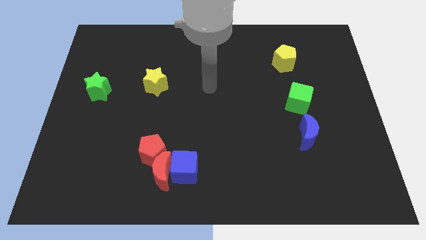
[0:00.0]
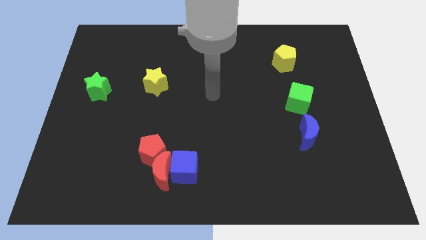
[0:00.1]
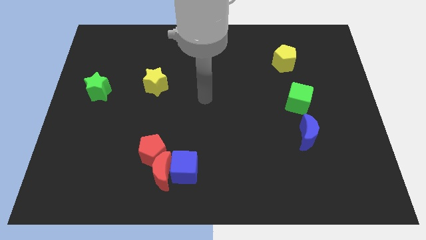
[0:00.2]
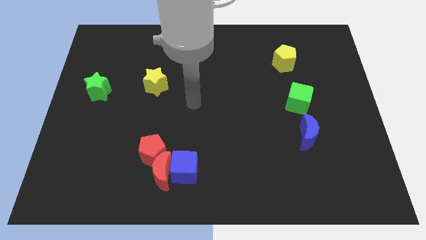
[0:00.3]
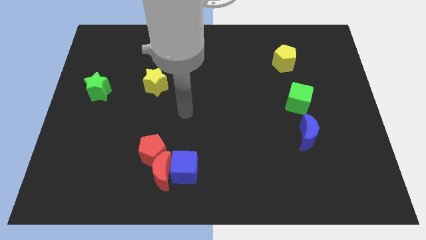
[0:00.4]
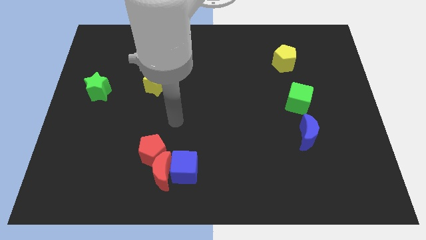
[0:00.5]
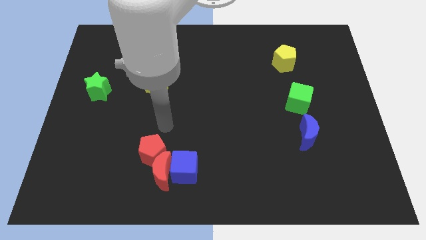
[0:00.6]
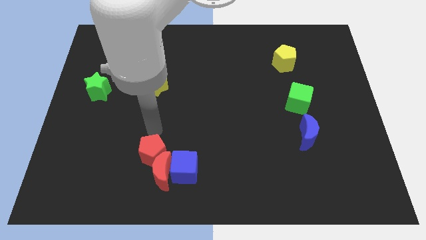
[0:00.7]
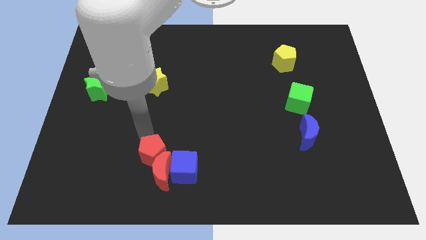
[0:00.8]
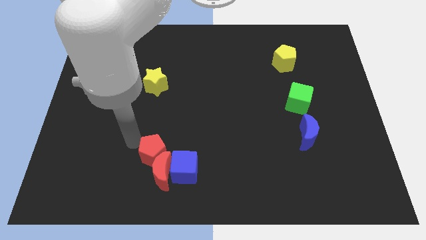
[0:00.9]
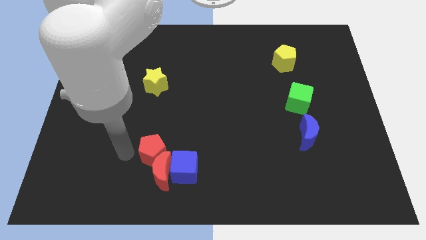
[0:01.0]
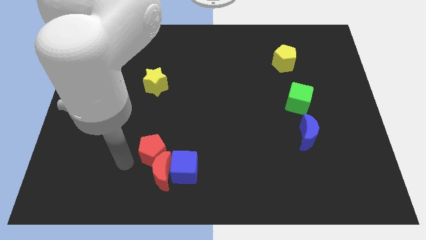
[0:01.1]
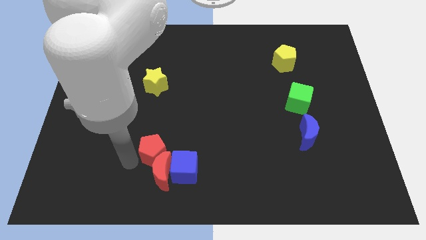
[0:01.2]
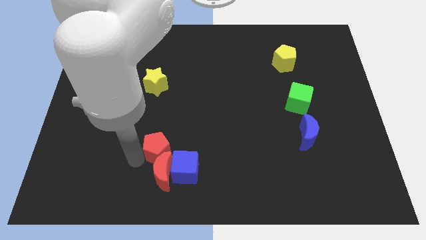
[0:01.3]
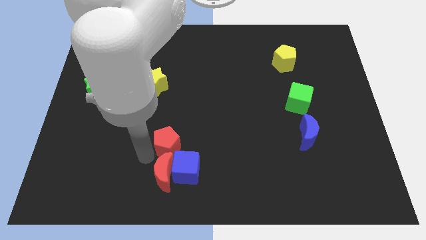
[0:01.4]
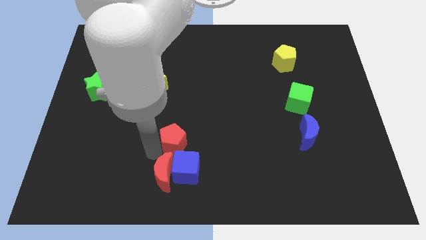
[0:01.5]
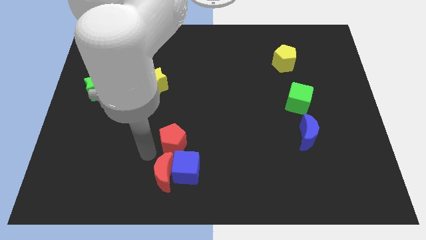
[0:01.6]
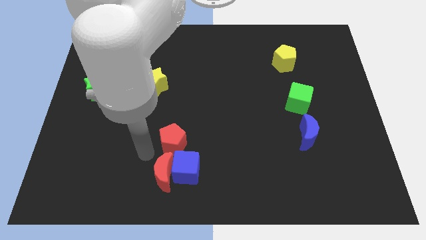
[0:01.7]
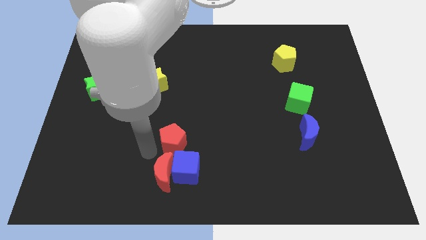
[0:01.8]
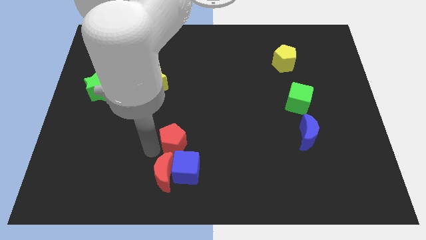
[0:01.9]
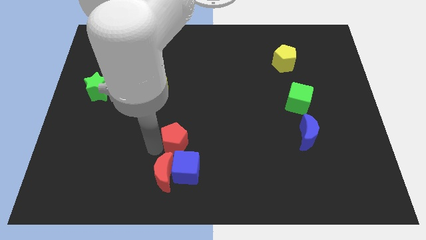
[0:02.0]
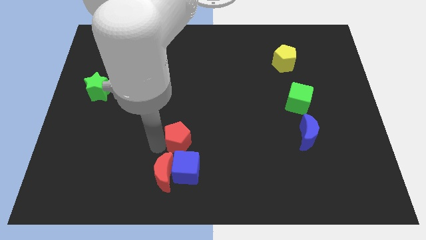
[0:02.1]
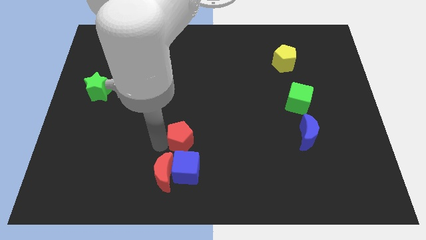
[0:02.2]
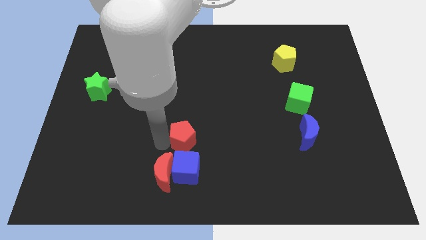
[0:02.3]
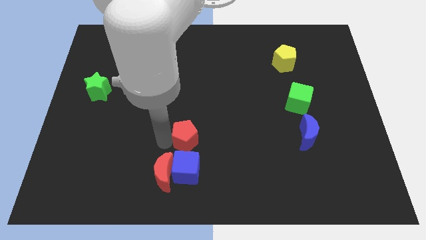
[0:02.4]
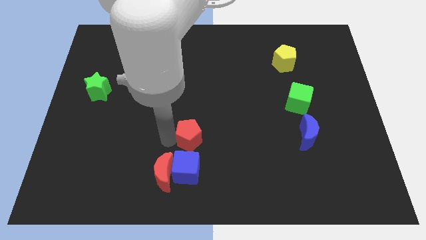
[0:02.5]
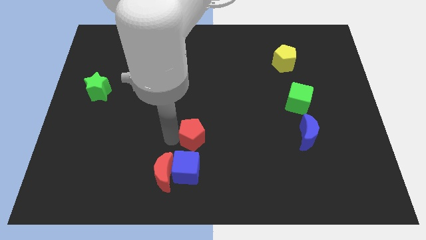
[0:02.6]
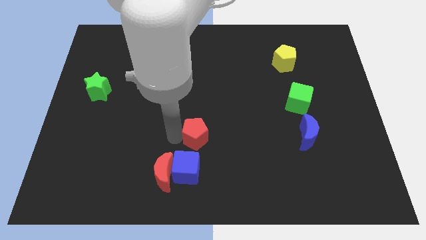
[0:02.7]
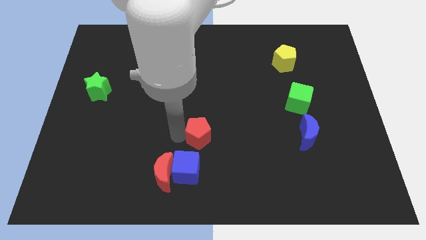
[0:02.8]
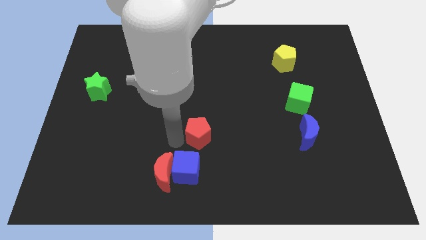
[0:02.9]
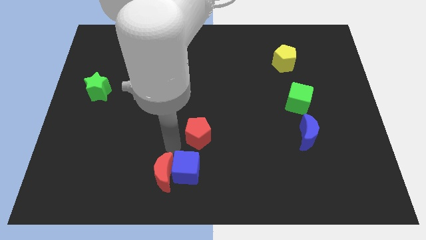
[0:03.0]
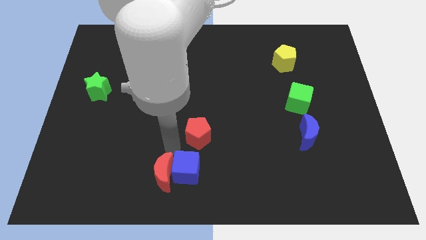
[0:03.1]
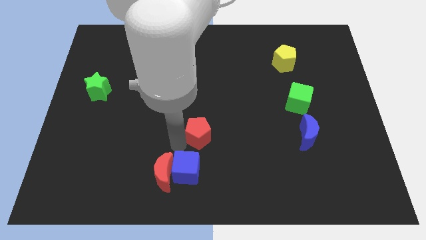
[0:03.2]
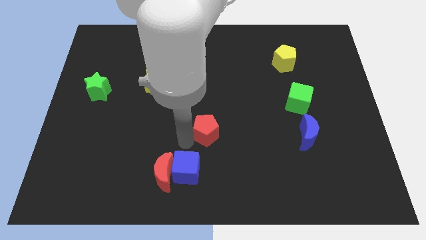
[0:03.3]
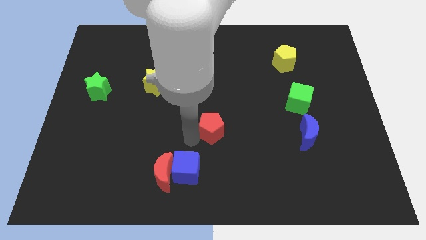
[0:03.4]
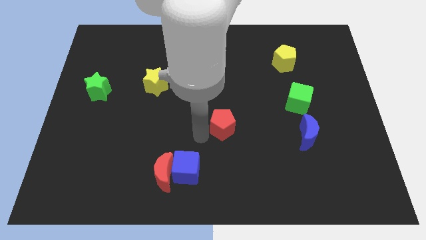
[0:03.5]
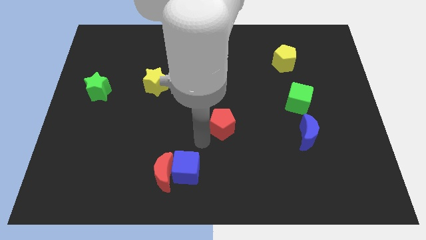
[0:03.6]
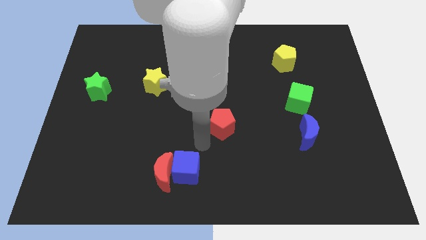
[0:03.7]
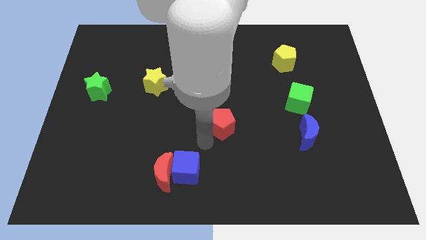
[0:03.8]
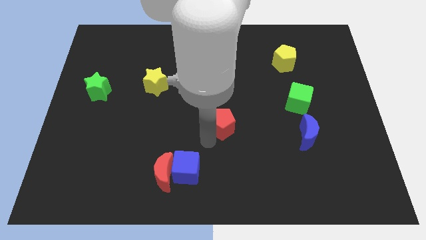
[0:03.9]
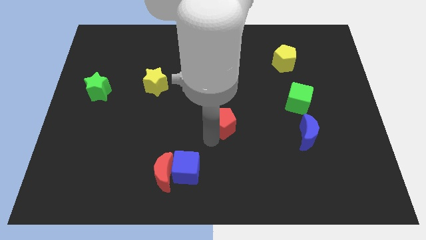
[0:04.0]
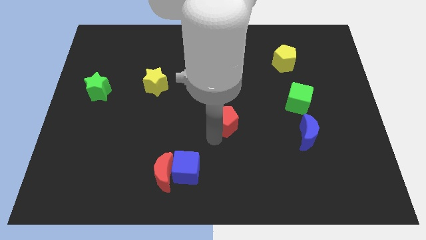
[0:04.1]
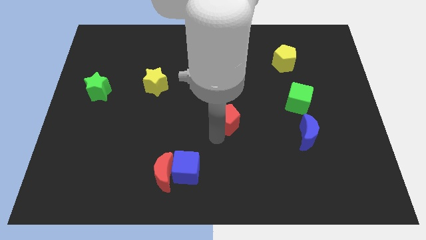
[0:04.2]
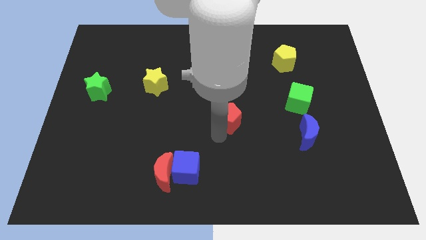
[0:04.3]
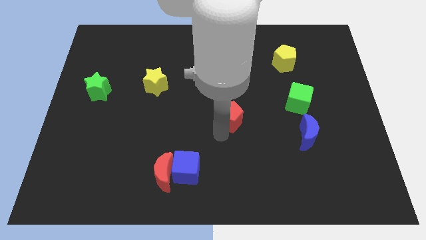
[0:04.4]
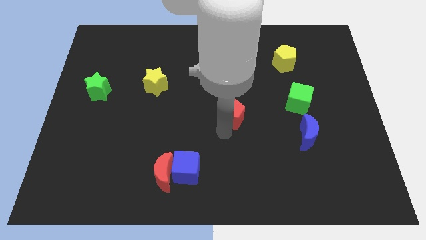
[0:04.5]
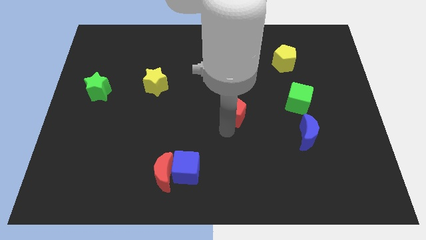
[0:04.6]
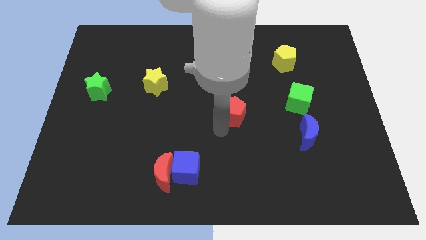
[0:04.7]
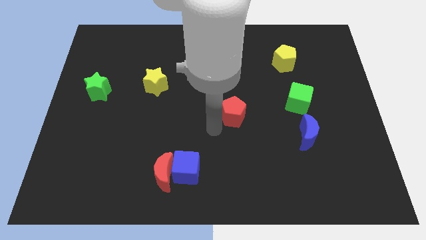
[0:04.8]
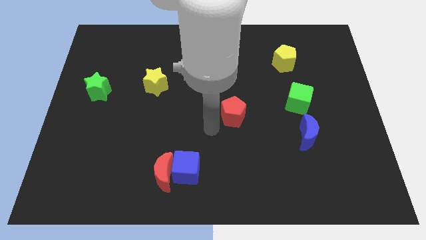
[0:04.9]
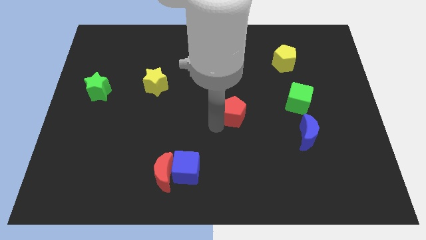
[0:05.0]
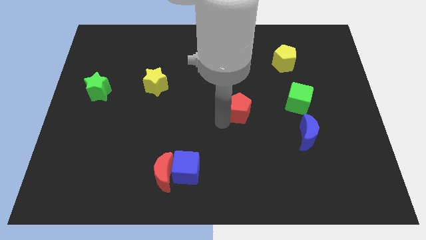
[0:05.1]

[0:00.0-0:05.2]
slide the red pentagon to the left of the green cube

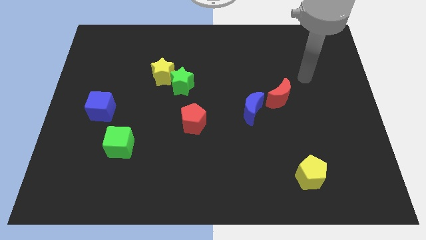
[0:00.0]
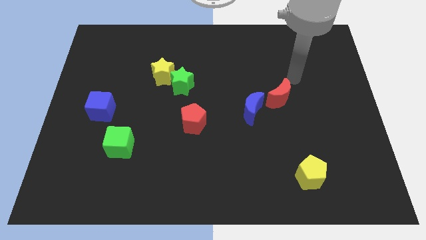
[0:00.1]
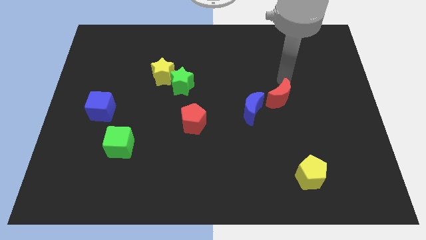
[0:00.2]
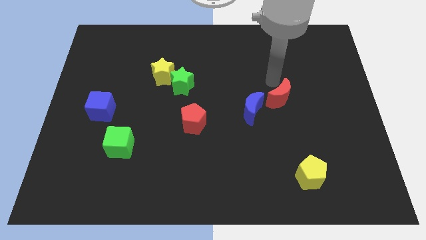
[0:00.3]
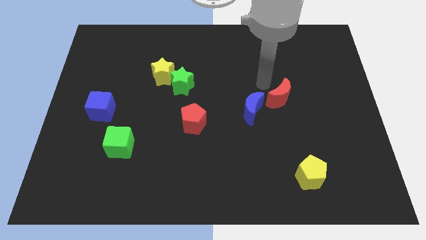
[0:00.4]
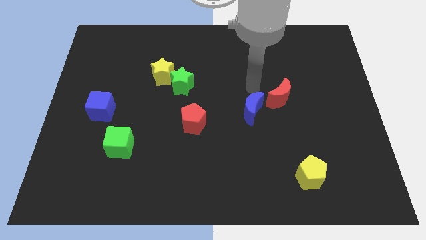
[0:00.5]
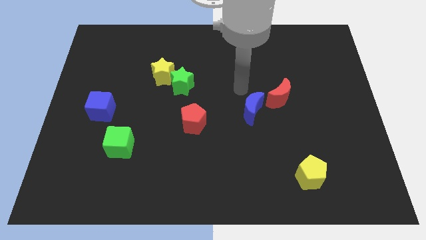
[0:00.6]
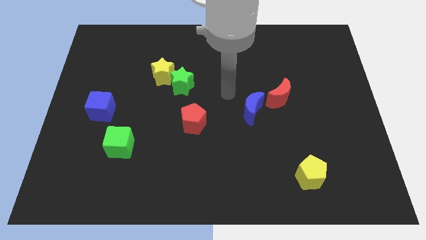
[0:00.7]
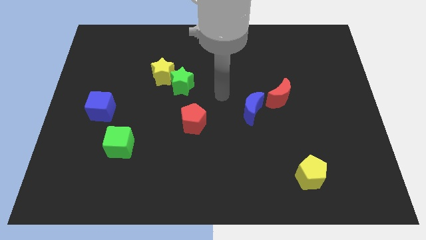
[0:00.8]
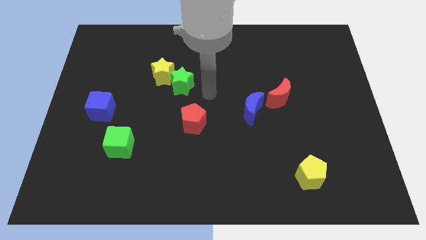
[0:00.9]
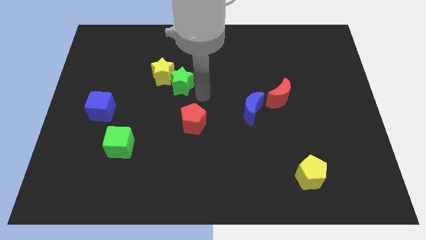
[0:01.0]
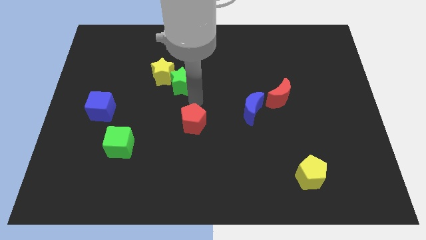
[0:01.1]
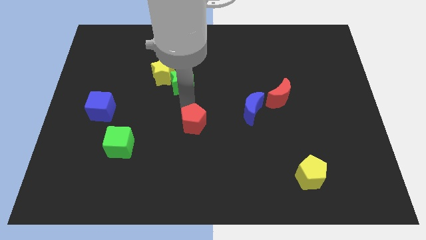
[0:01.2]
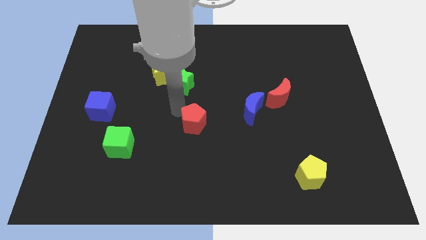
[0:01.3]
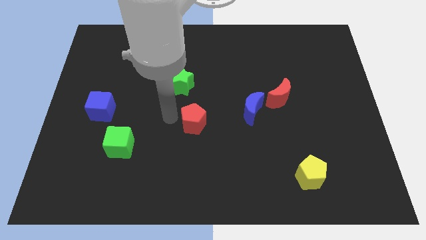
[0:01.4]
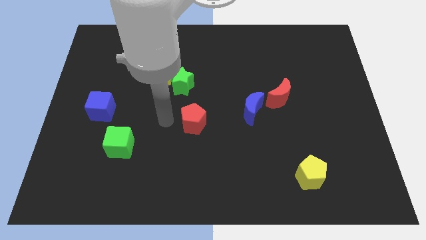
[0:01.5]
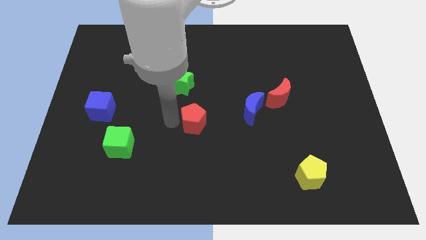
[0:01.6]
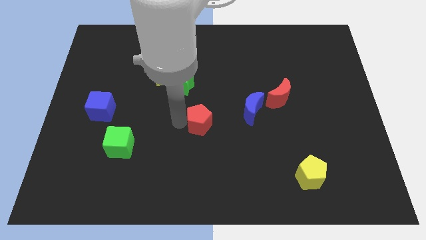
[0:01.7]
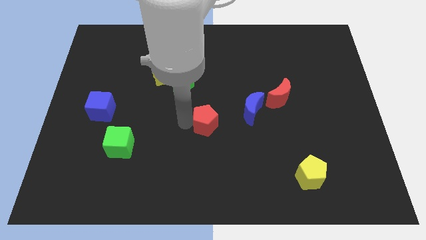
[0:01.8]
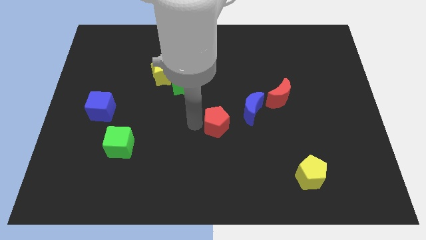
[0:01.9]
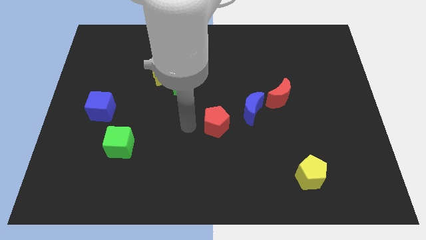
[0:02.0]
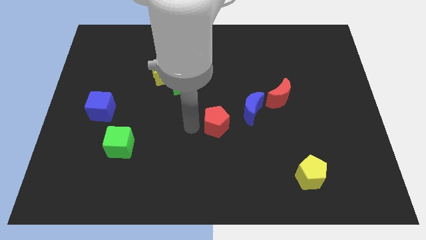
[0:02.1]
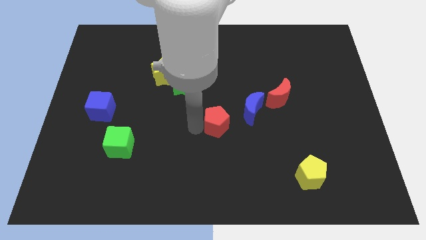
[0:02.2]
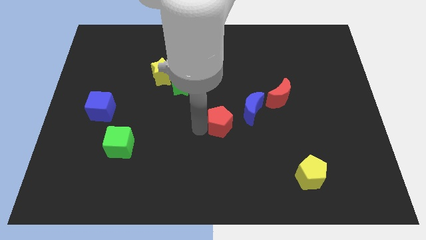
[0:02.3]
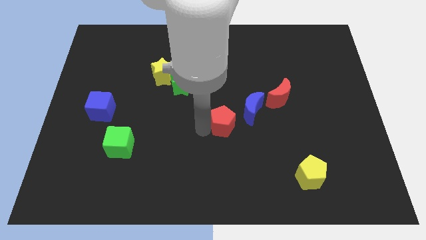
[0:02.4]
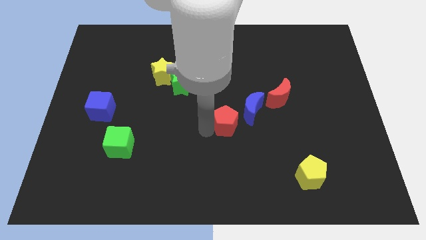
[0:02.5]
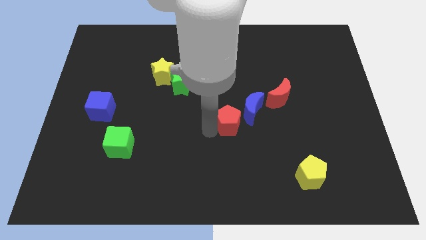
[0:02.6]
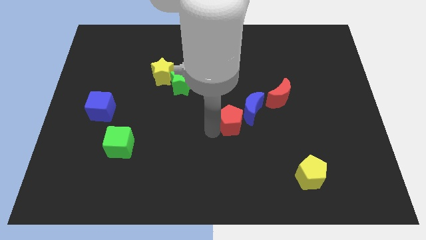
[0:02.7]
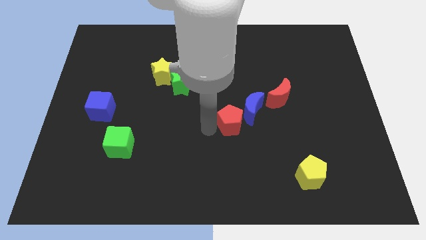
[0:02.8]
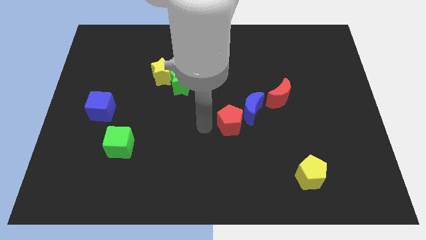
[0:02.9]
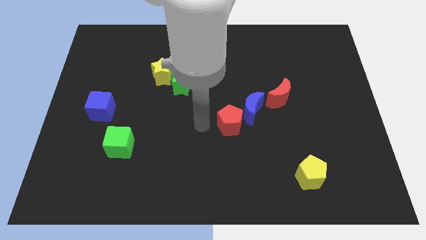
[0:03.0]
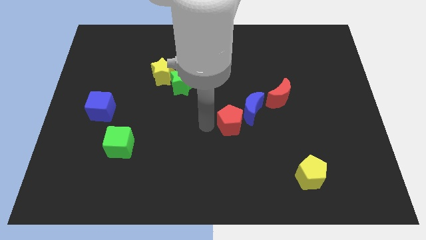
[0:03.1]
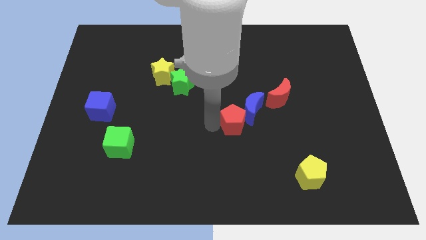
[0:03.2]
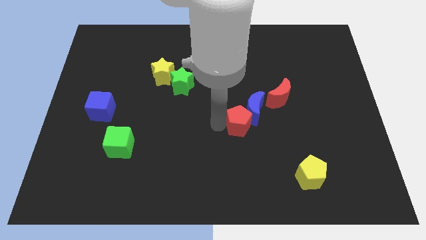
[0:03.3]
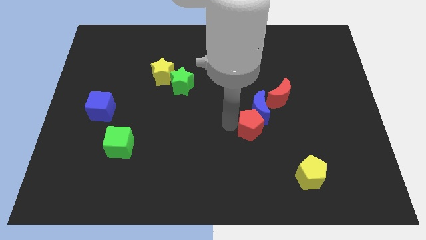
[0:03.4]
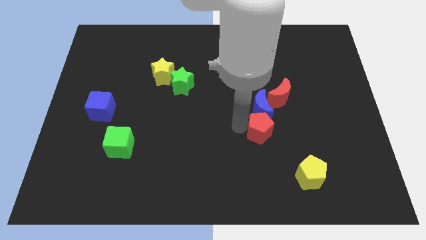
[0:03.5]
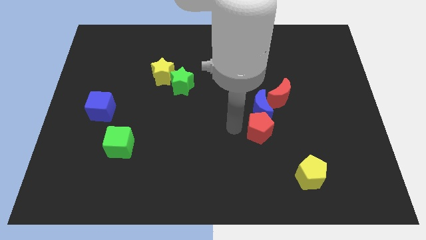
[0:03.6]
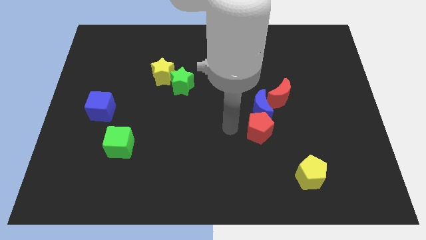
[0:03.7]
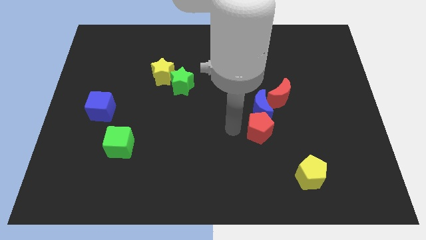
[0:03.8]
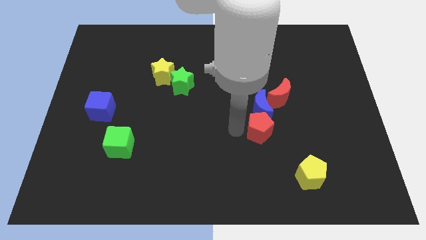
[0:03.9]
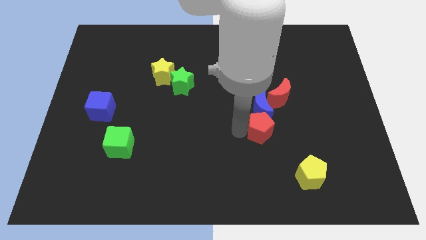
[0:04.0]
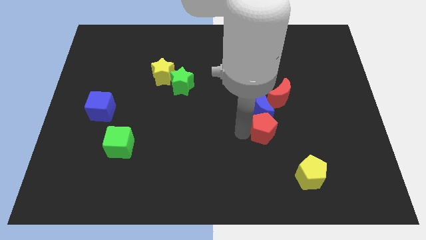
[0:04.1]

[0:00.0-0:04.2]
put the red pentagon below the red moon
